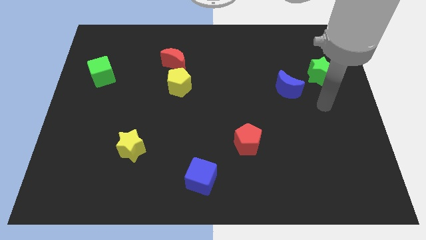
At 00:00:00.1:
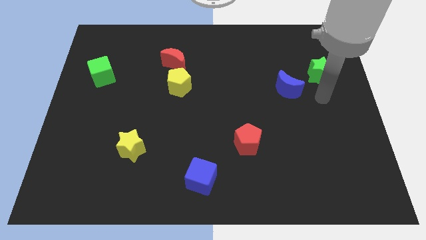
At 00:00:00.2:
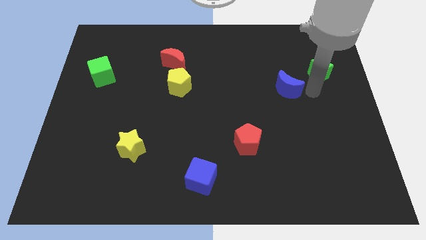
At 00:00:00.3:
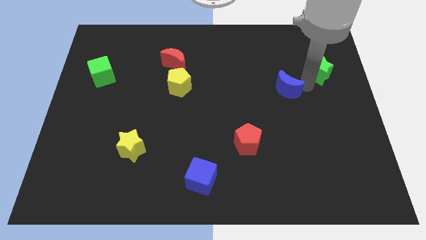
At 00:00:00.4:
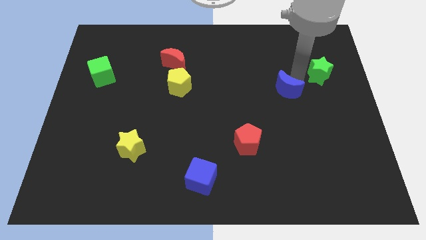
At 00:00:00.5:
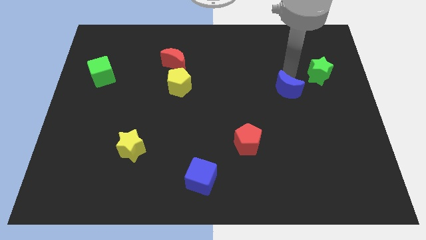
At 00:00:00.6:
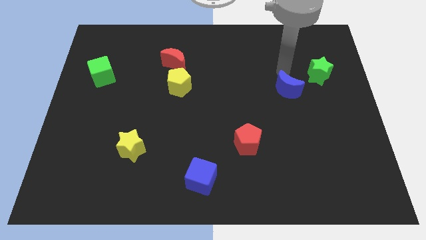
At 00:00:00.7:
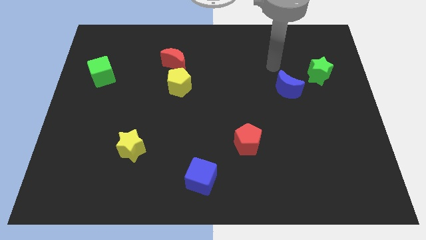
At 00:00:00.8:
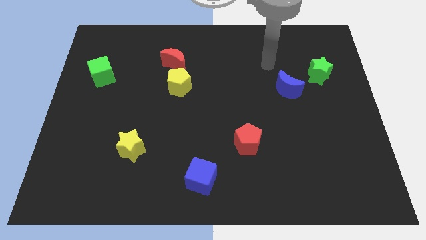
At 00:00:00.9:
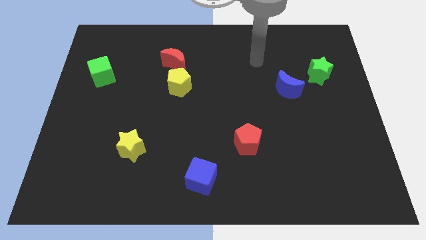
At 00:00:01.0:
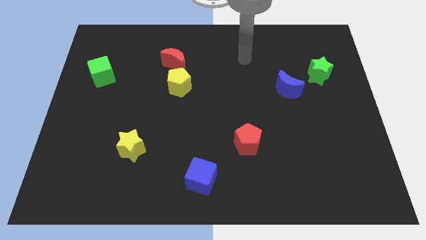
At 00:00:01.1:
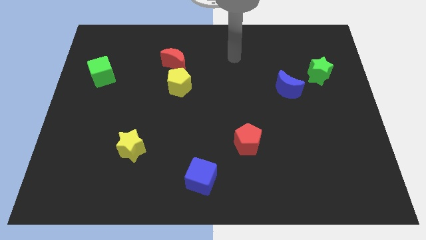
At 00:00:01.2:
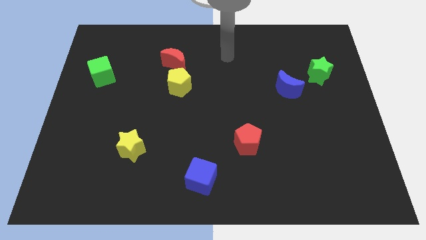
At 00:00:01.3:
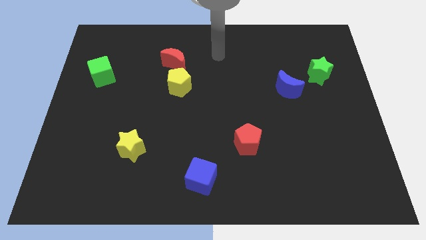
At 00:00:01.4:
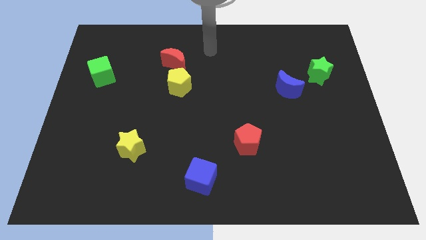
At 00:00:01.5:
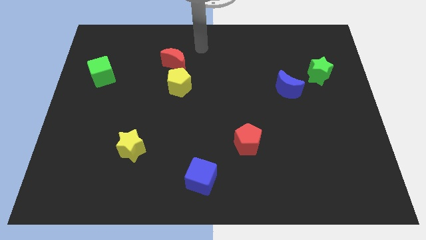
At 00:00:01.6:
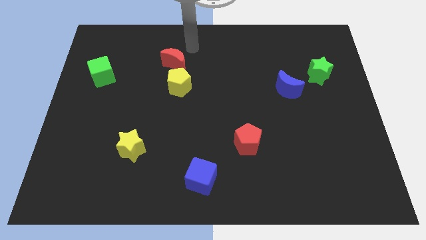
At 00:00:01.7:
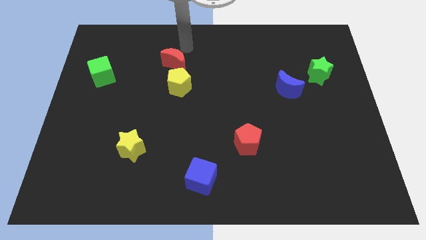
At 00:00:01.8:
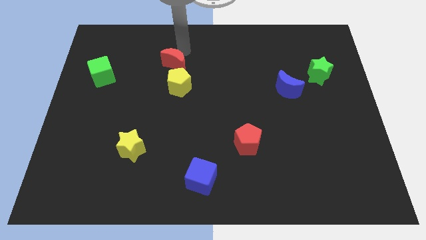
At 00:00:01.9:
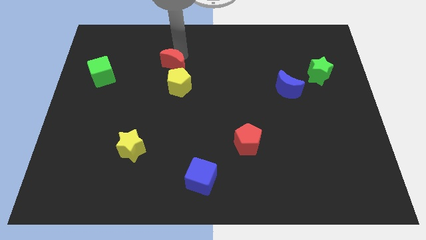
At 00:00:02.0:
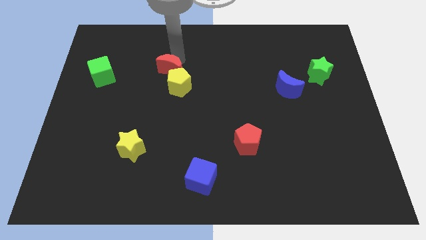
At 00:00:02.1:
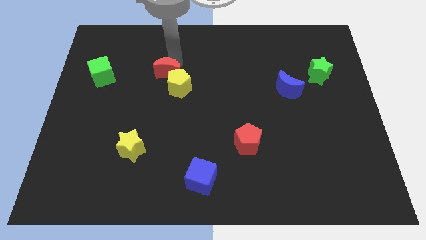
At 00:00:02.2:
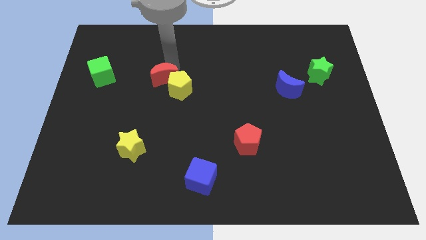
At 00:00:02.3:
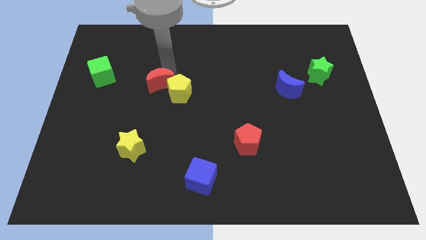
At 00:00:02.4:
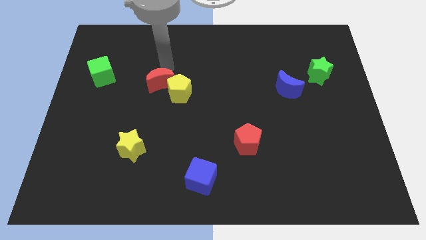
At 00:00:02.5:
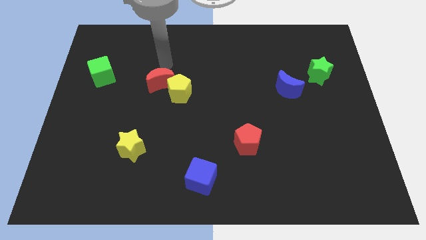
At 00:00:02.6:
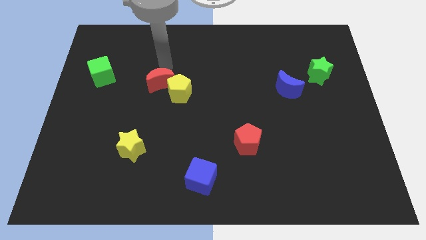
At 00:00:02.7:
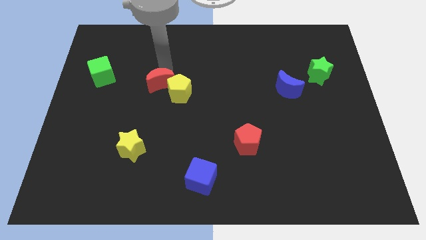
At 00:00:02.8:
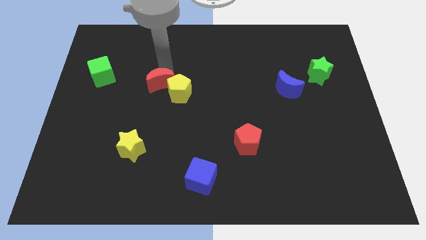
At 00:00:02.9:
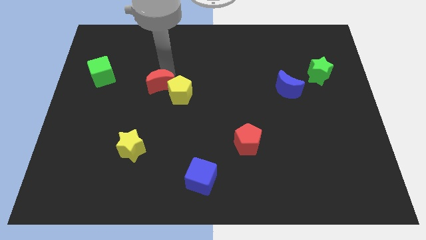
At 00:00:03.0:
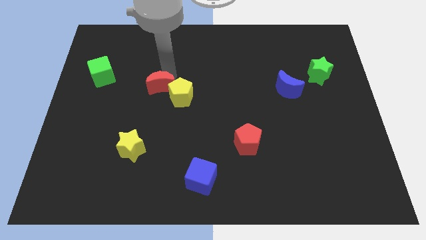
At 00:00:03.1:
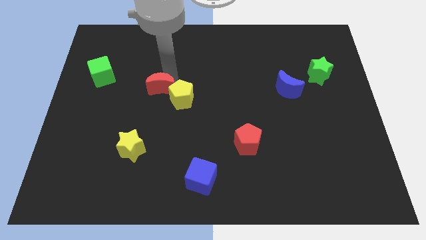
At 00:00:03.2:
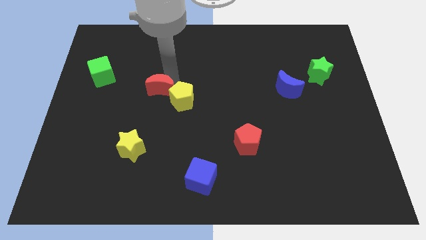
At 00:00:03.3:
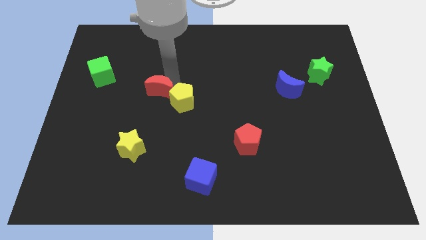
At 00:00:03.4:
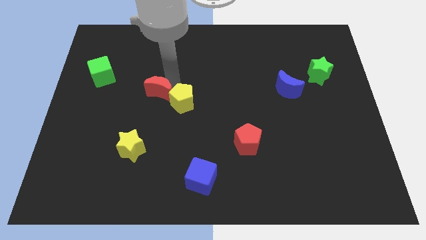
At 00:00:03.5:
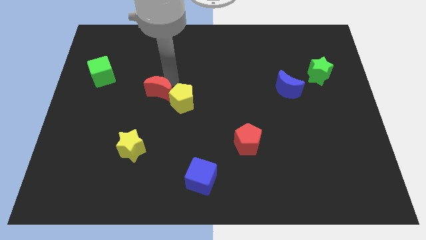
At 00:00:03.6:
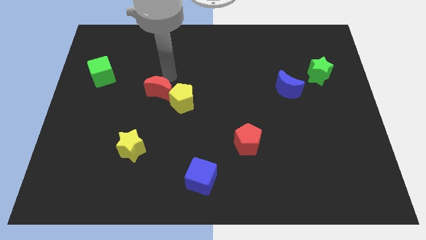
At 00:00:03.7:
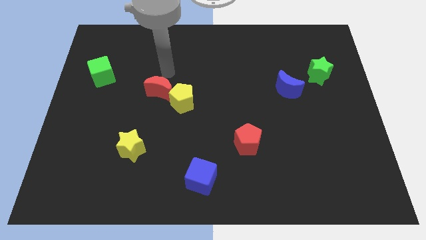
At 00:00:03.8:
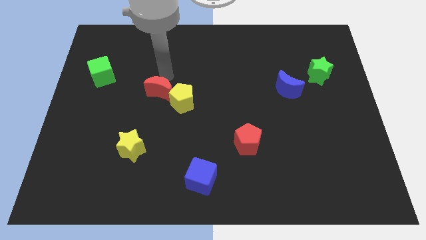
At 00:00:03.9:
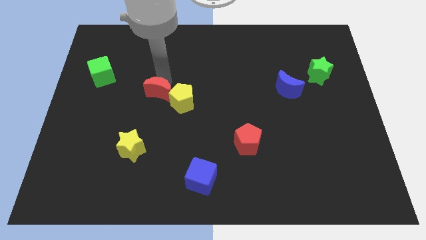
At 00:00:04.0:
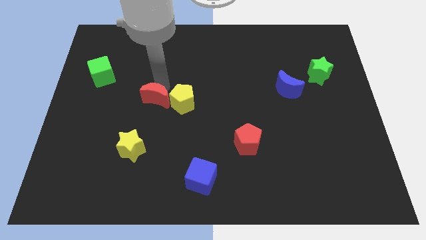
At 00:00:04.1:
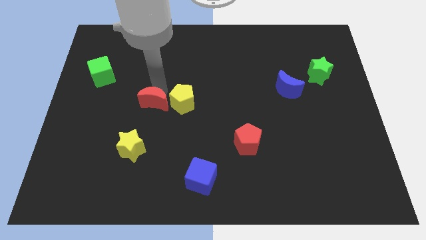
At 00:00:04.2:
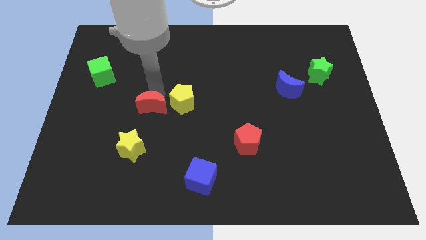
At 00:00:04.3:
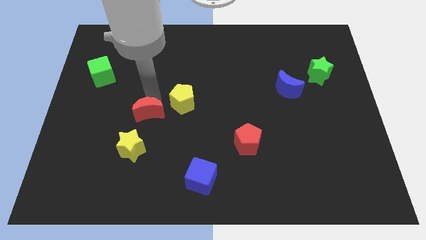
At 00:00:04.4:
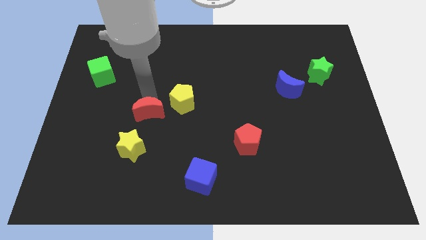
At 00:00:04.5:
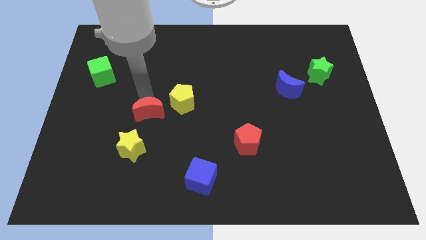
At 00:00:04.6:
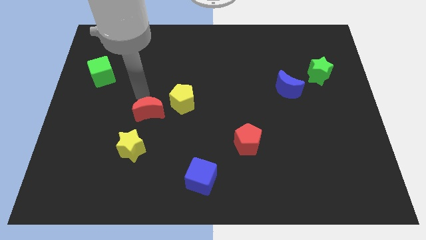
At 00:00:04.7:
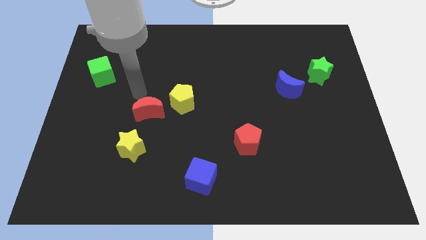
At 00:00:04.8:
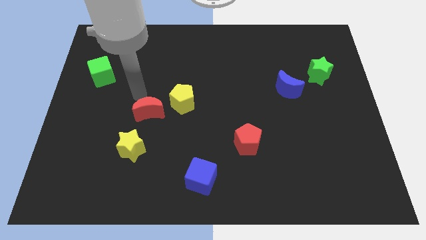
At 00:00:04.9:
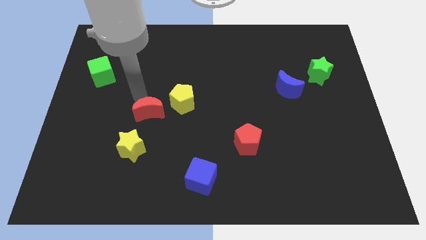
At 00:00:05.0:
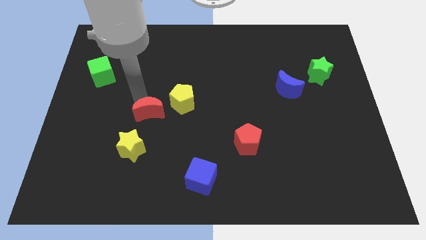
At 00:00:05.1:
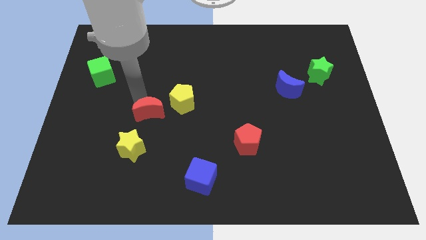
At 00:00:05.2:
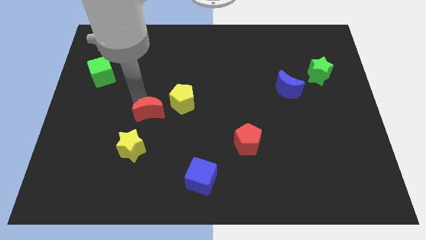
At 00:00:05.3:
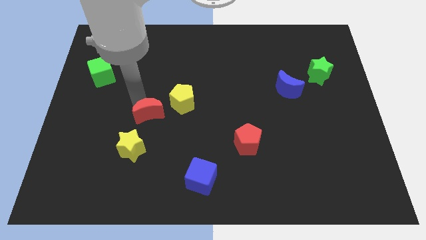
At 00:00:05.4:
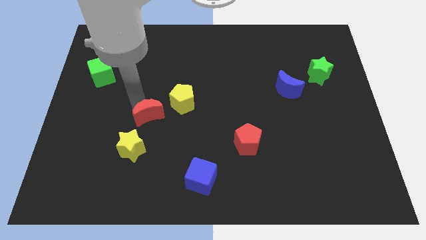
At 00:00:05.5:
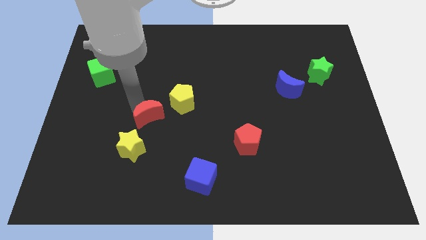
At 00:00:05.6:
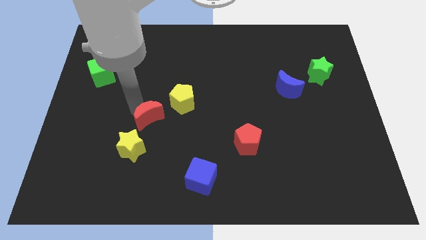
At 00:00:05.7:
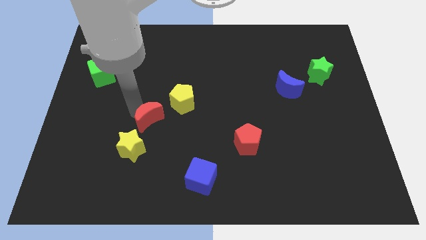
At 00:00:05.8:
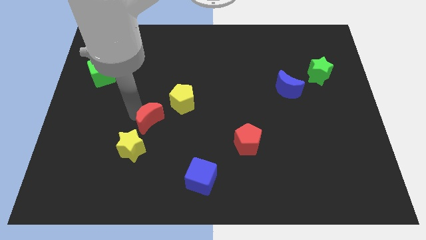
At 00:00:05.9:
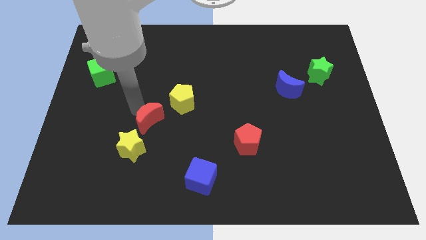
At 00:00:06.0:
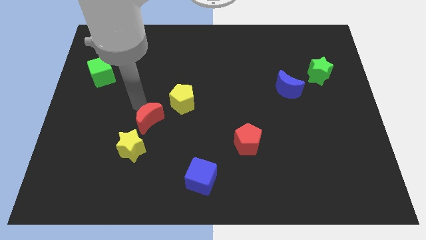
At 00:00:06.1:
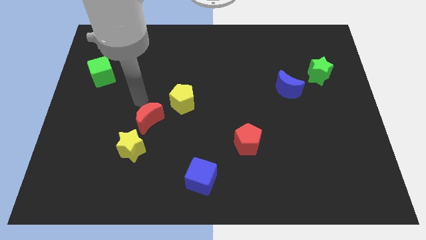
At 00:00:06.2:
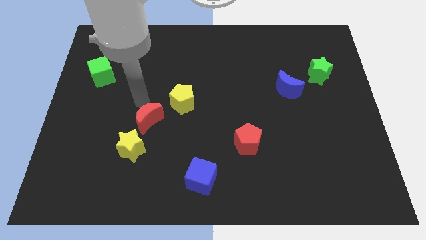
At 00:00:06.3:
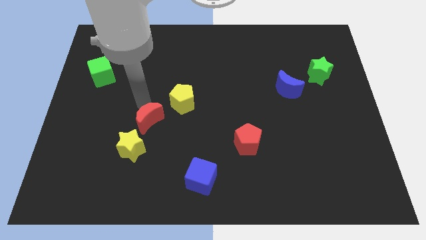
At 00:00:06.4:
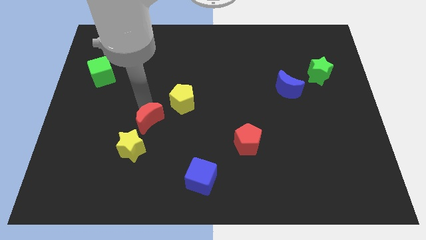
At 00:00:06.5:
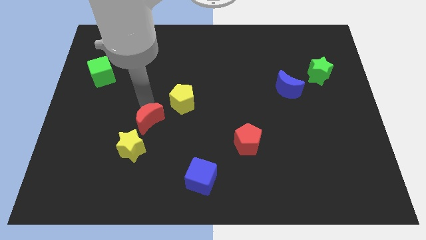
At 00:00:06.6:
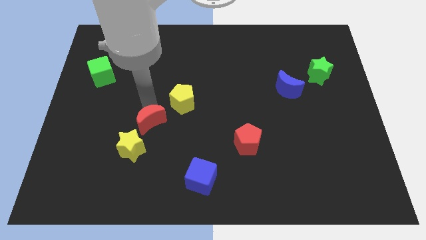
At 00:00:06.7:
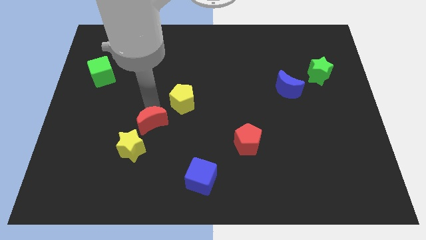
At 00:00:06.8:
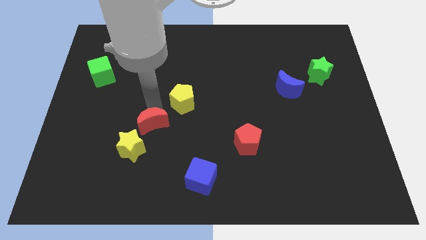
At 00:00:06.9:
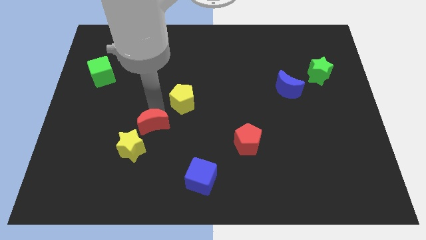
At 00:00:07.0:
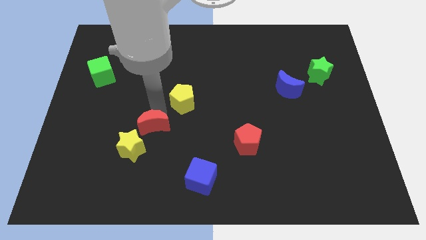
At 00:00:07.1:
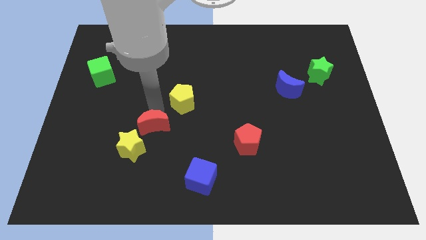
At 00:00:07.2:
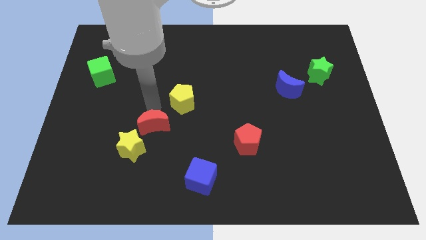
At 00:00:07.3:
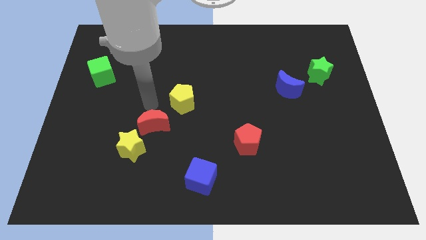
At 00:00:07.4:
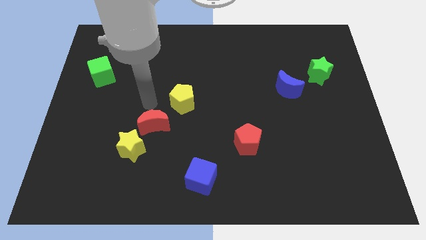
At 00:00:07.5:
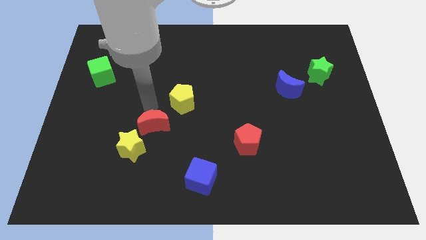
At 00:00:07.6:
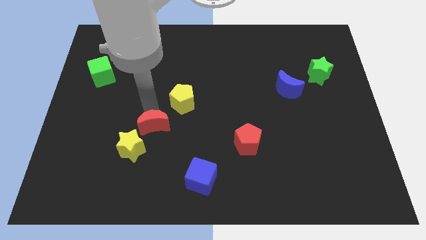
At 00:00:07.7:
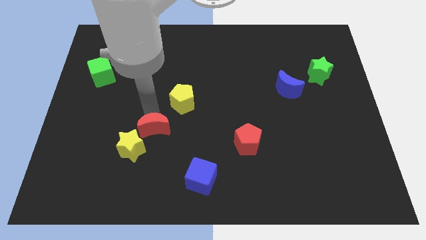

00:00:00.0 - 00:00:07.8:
move the red moon downwards

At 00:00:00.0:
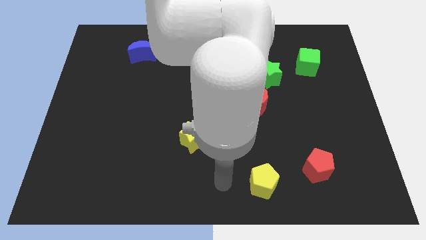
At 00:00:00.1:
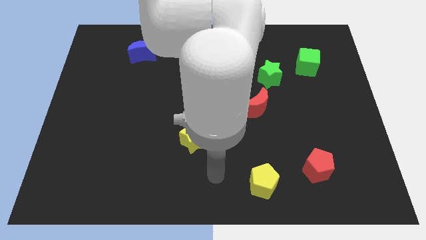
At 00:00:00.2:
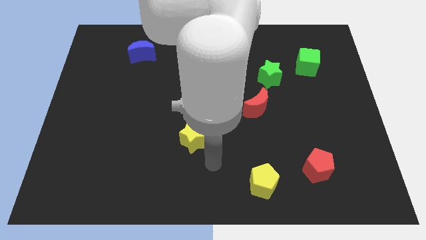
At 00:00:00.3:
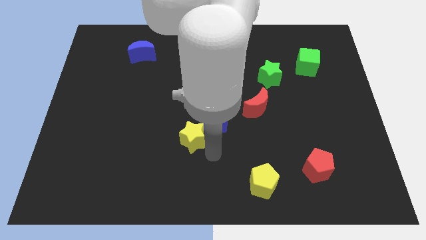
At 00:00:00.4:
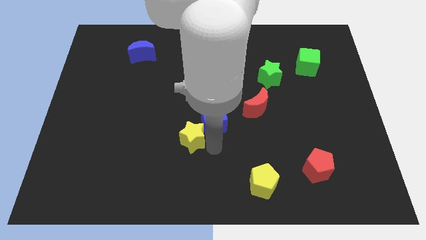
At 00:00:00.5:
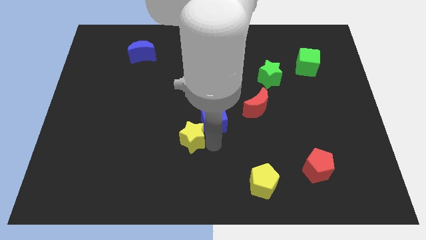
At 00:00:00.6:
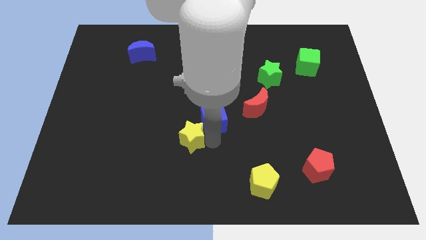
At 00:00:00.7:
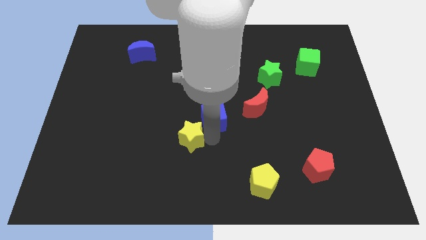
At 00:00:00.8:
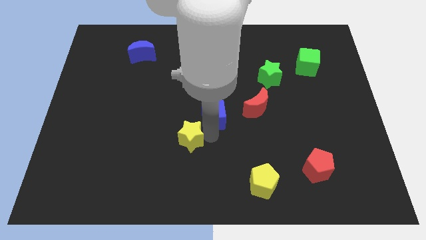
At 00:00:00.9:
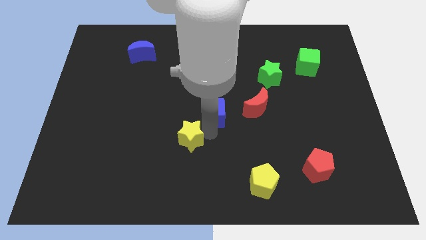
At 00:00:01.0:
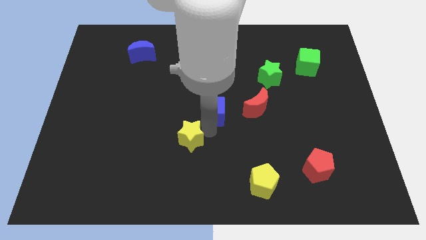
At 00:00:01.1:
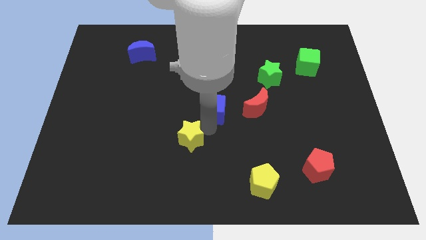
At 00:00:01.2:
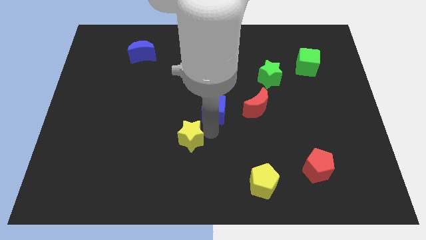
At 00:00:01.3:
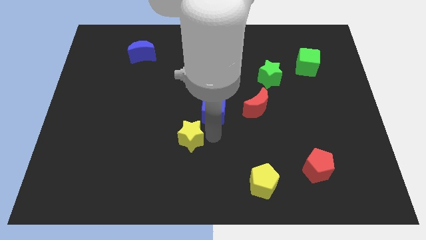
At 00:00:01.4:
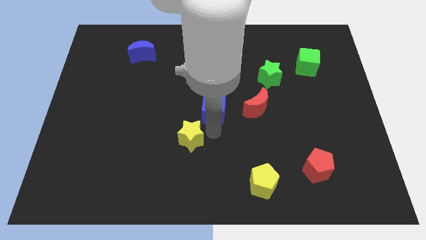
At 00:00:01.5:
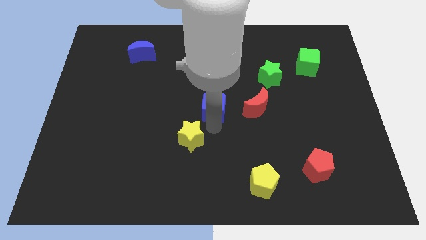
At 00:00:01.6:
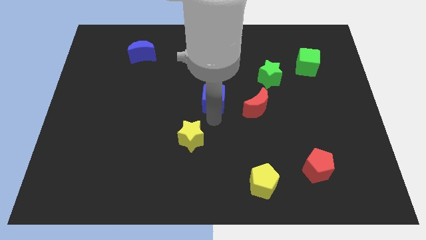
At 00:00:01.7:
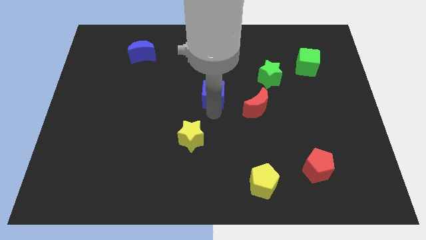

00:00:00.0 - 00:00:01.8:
slide the blue cube upwards a little
